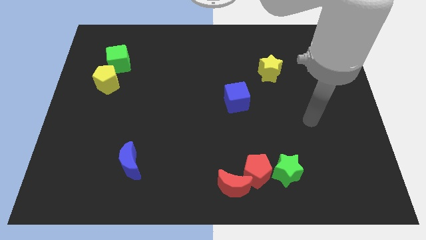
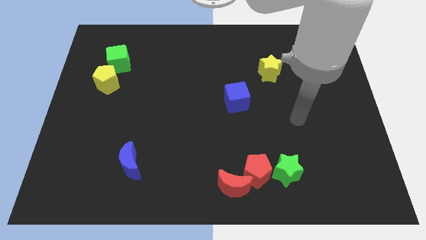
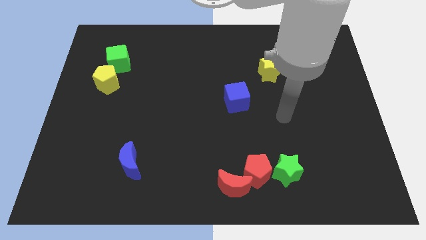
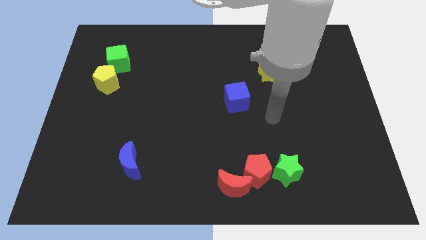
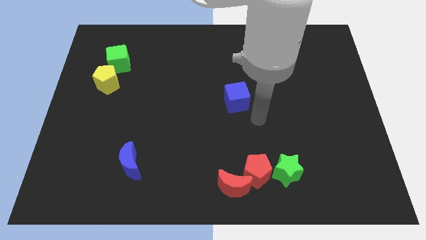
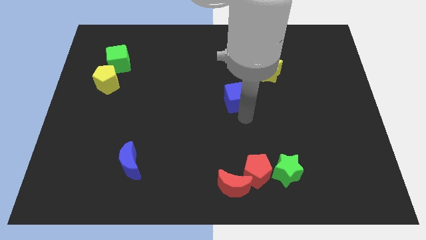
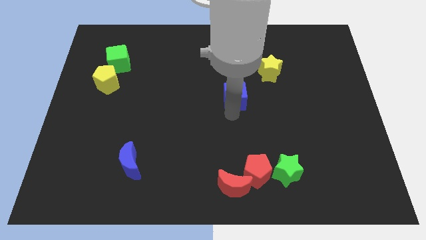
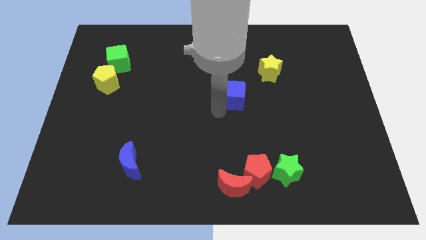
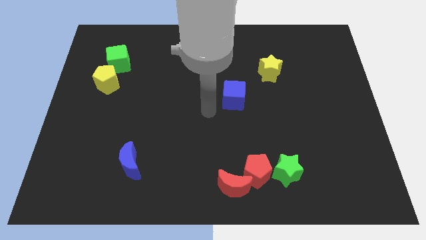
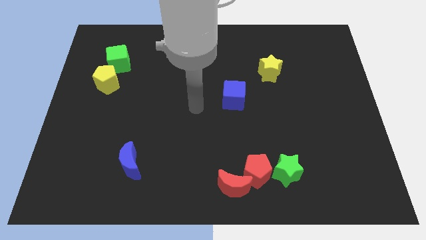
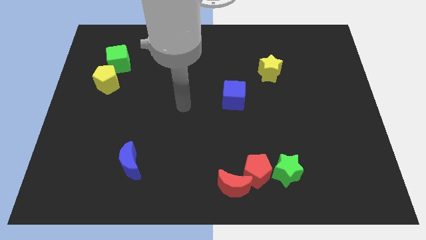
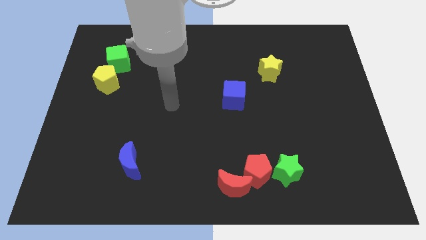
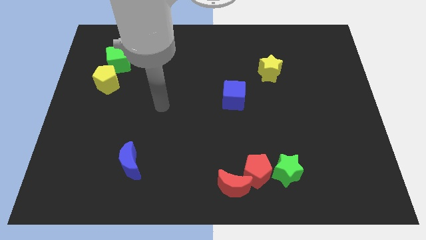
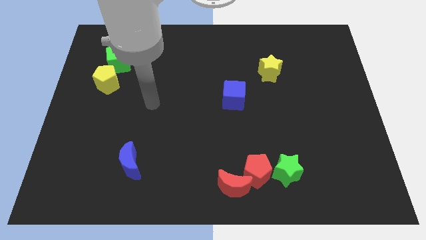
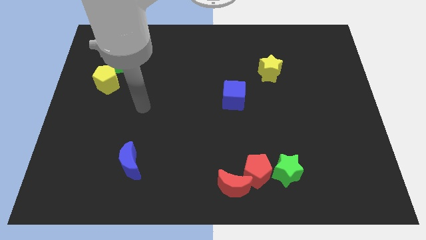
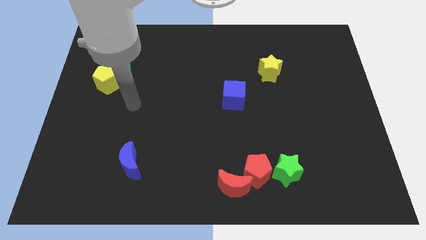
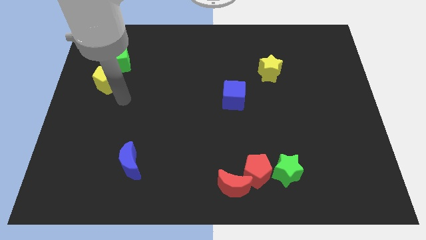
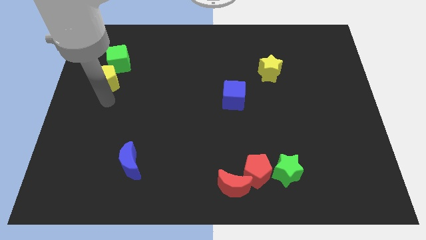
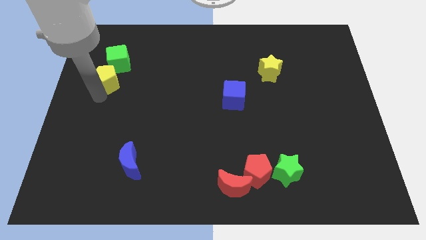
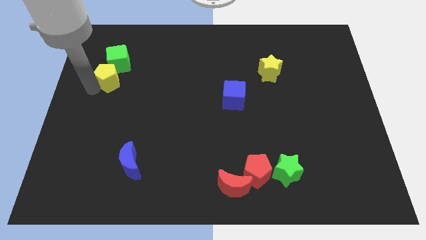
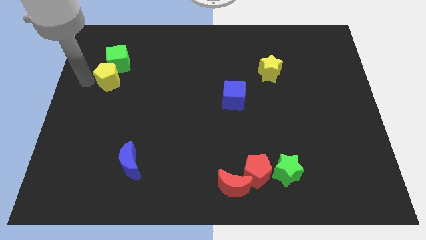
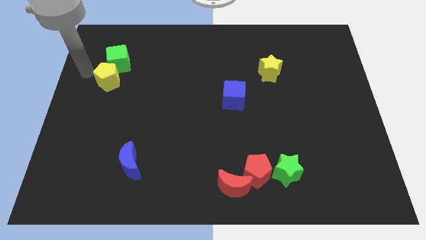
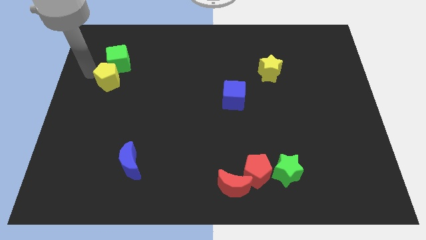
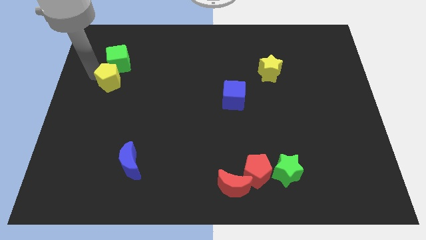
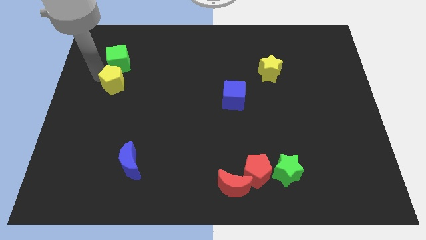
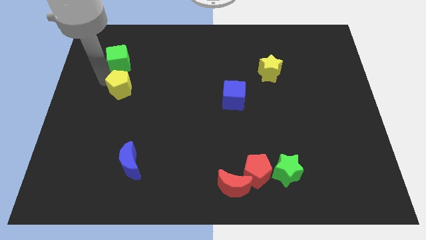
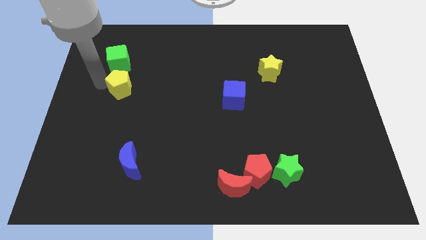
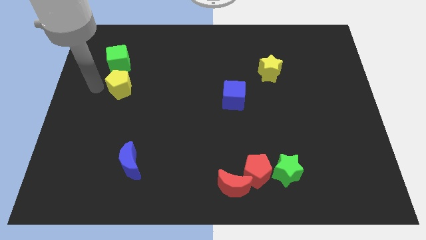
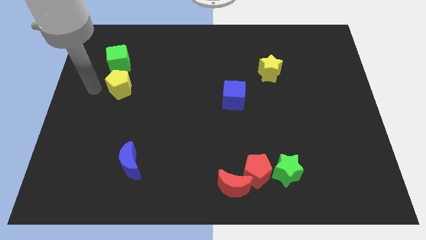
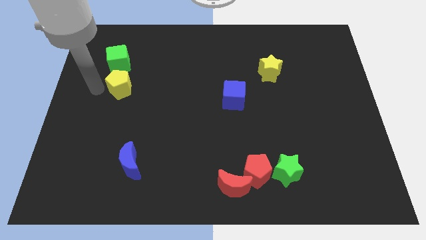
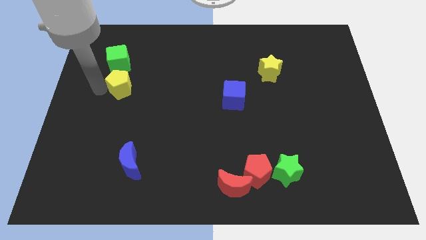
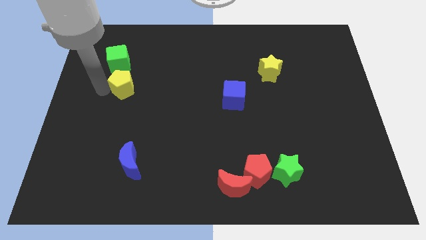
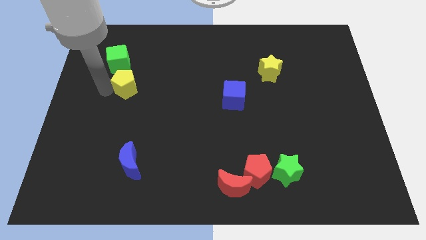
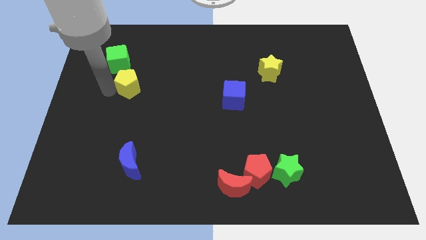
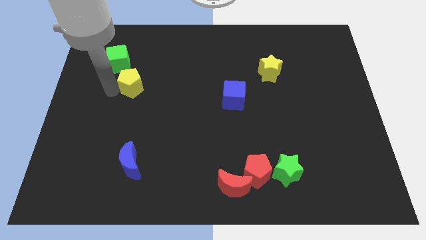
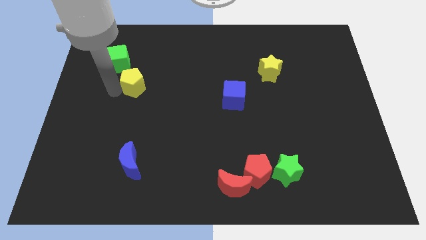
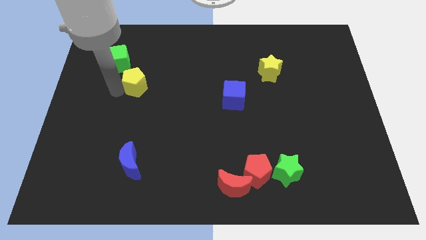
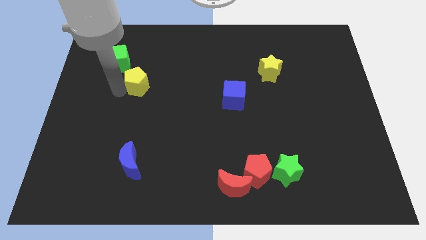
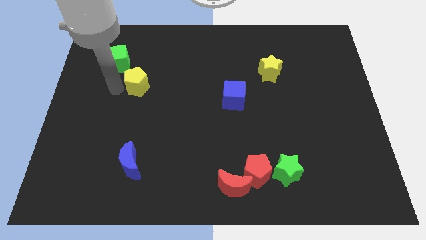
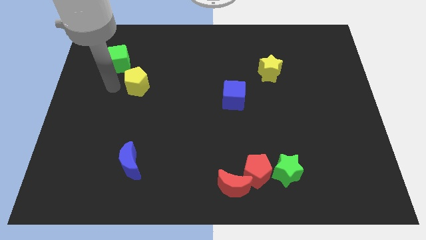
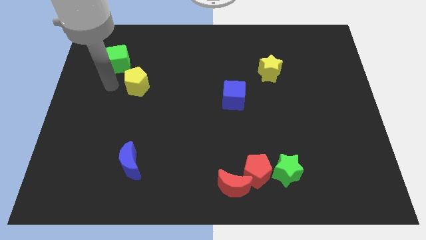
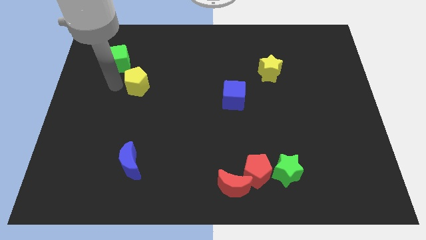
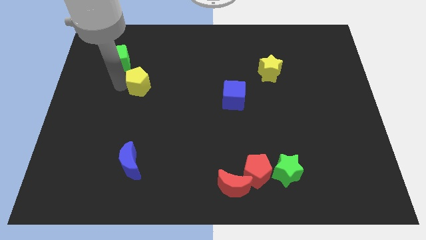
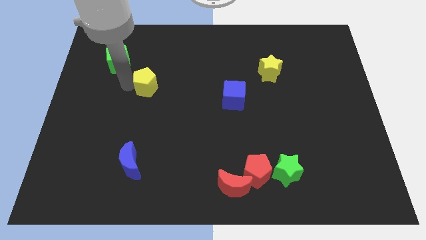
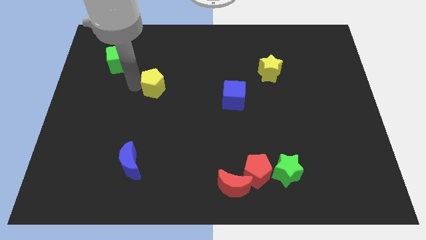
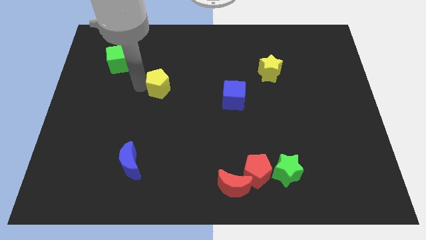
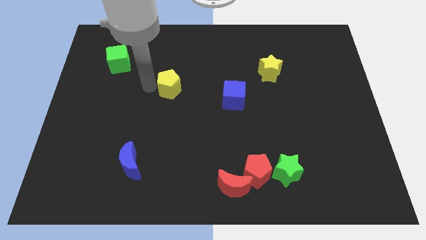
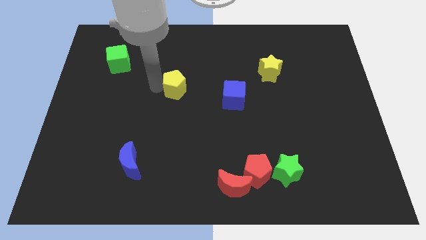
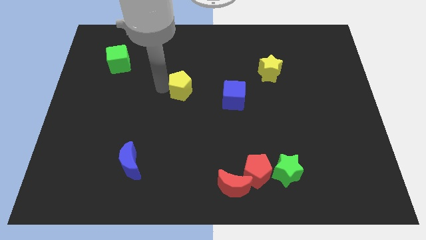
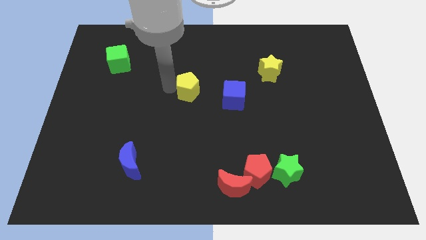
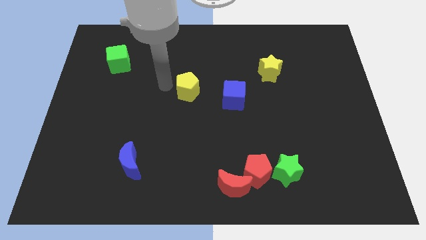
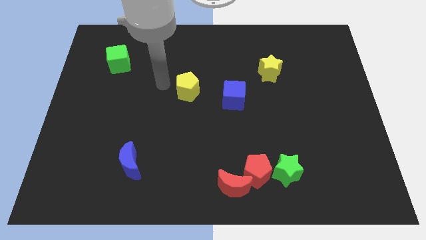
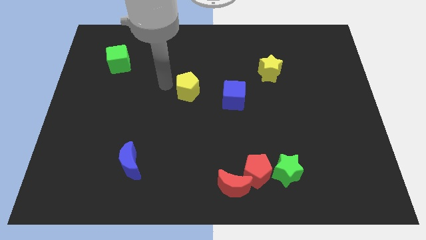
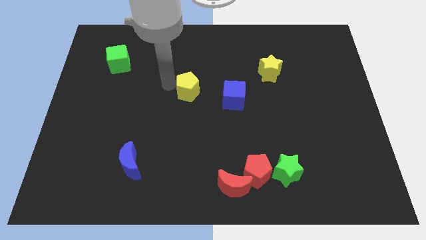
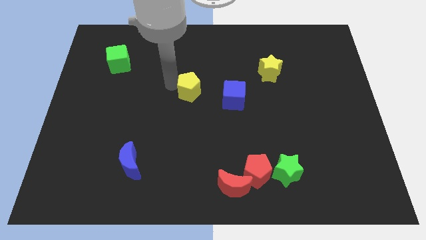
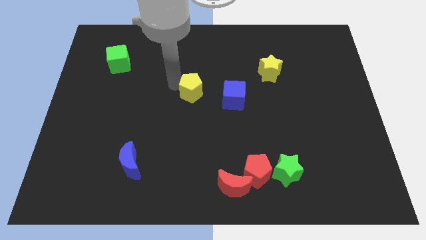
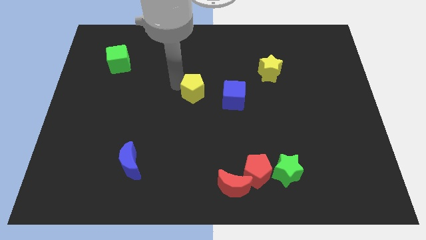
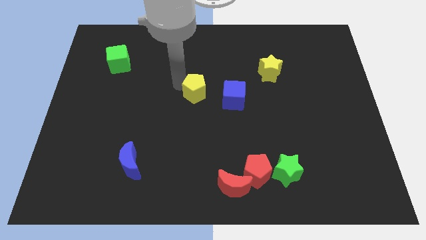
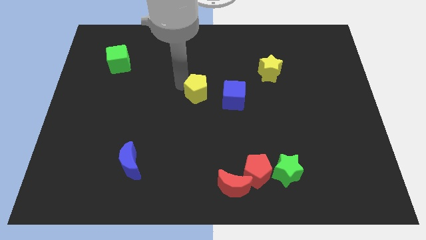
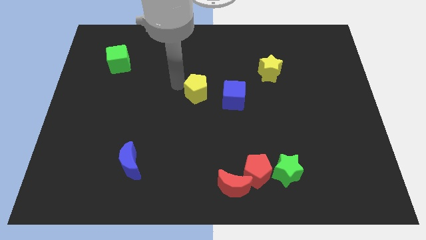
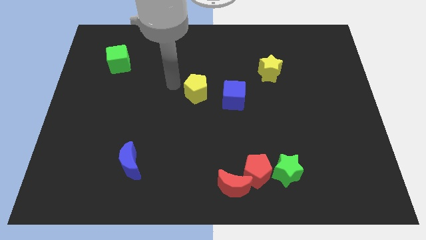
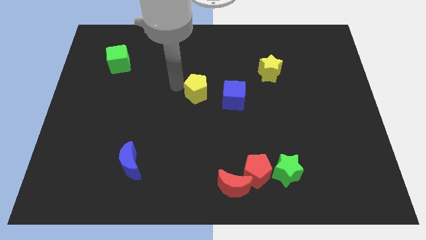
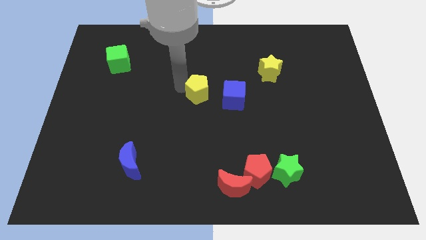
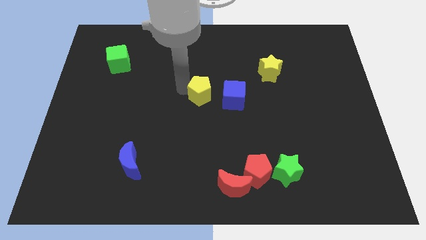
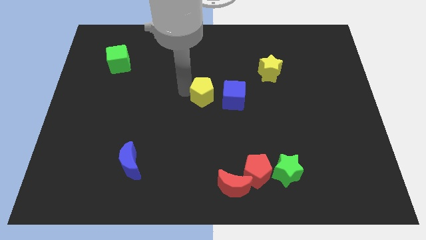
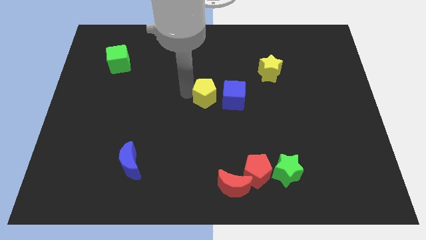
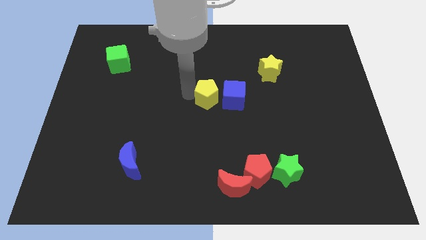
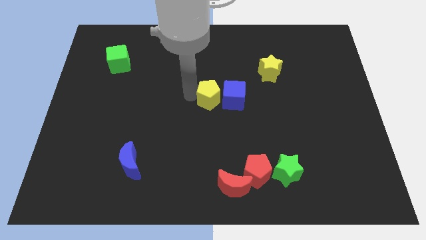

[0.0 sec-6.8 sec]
slide the yellow pentagon towards the blue cube
